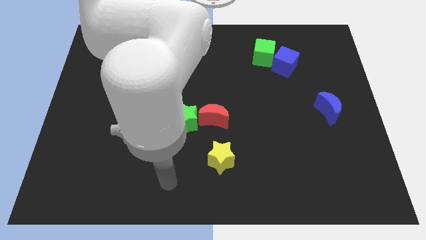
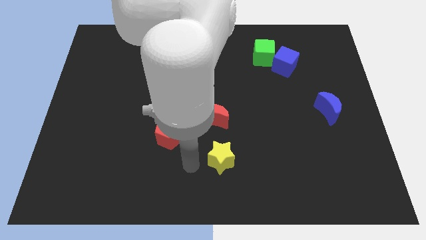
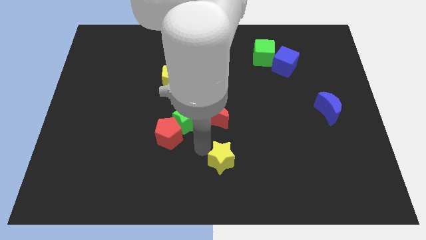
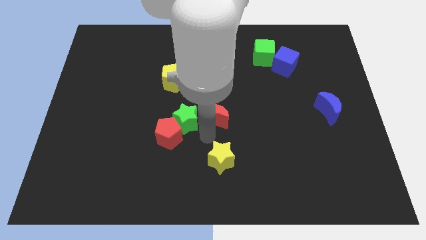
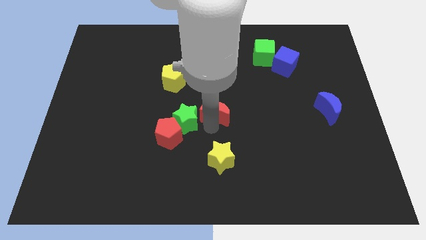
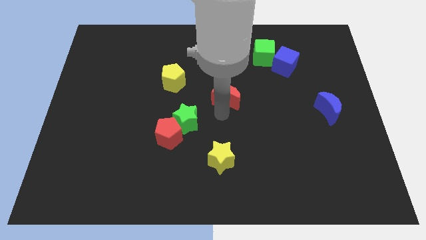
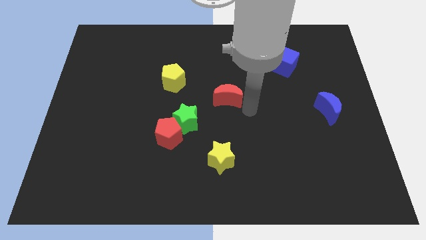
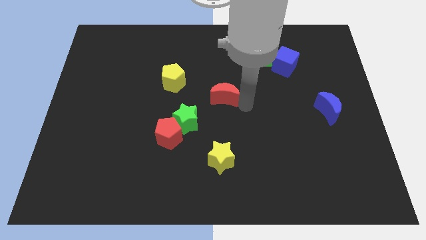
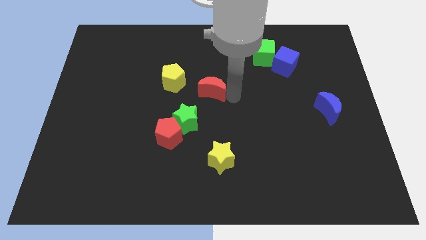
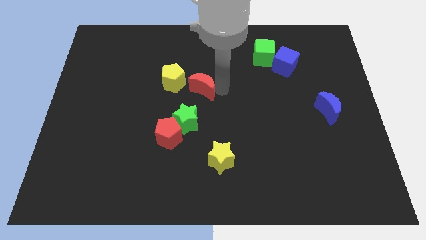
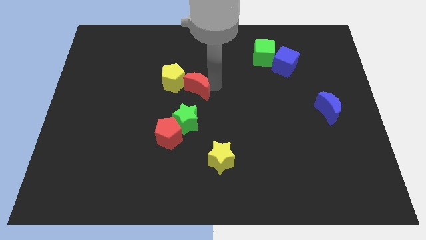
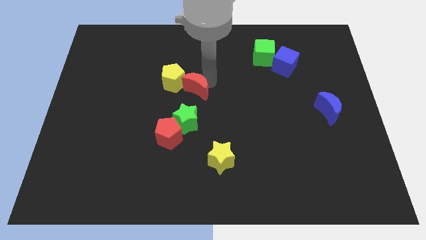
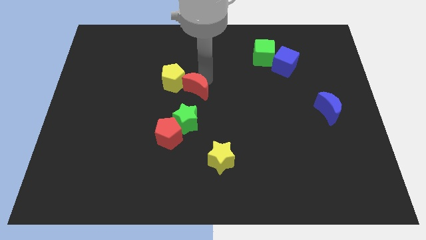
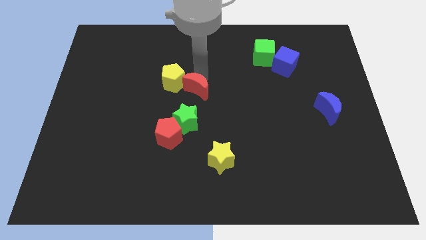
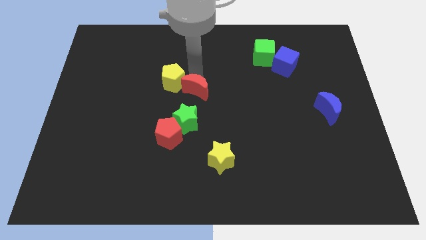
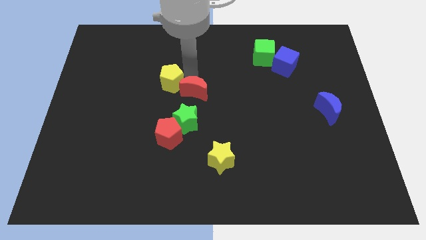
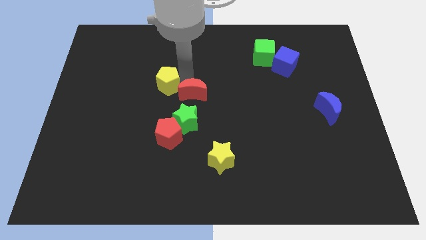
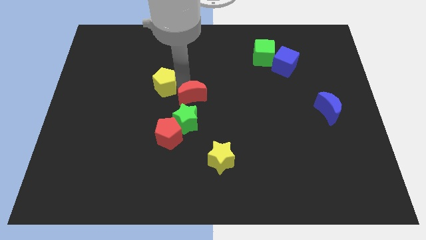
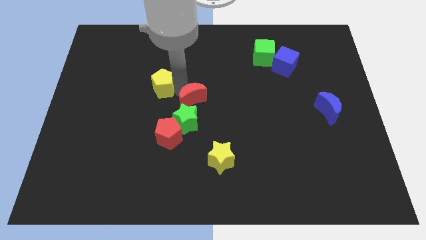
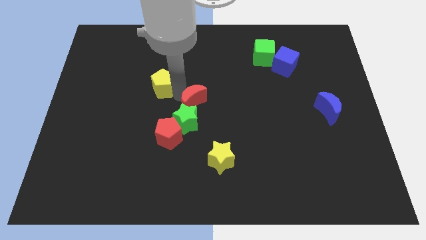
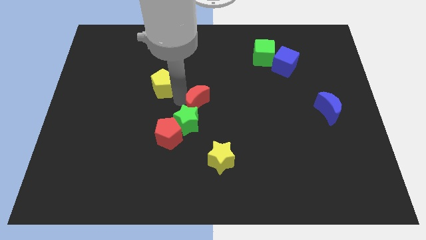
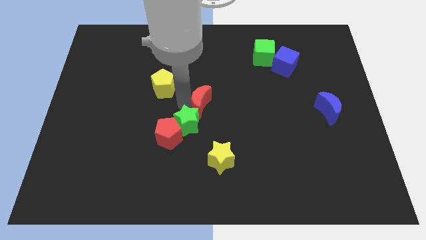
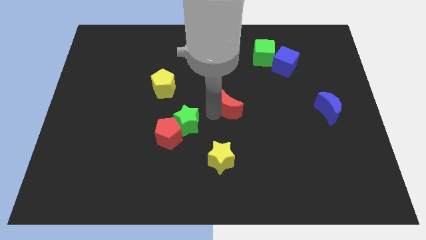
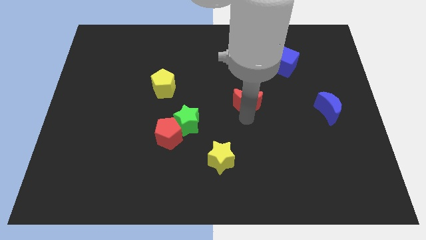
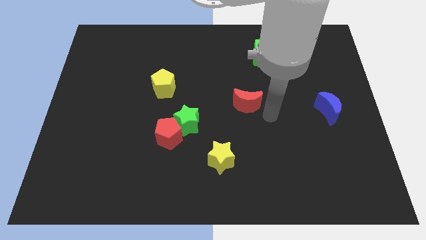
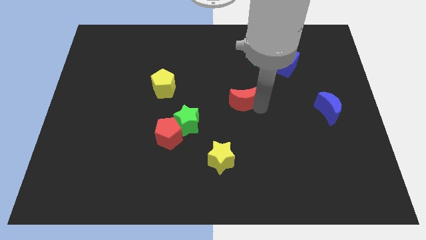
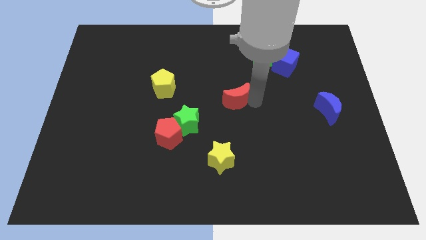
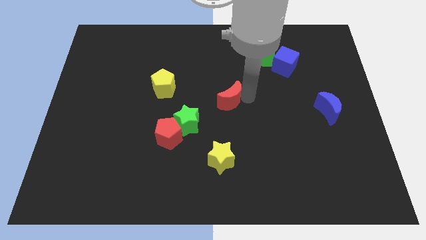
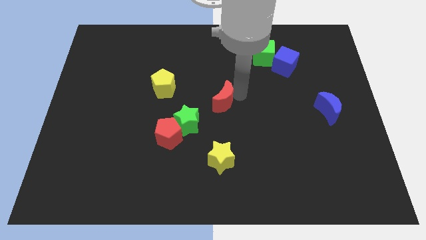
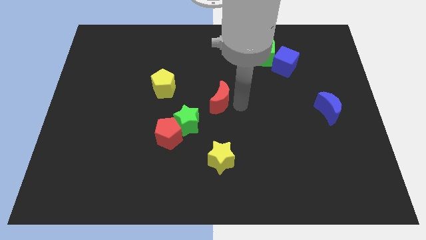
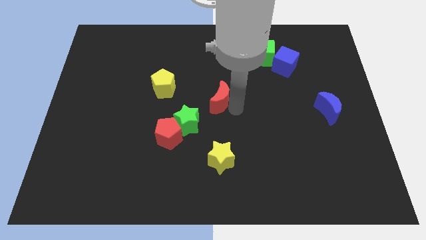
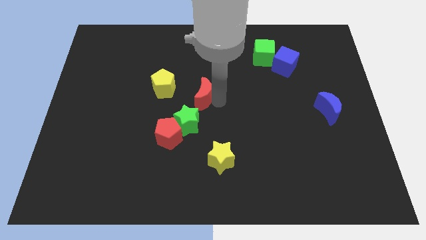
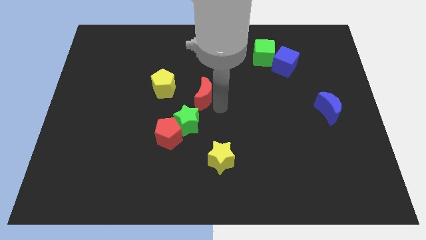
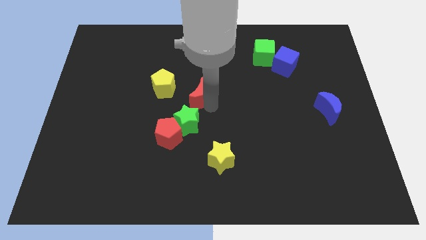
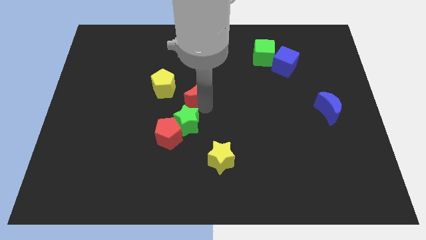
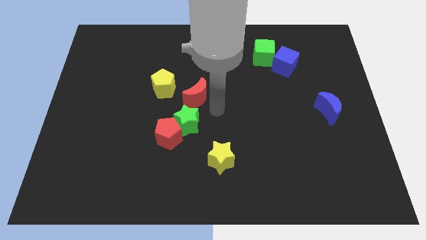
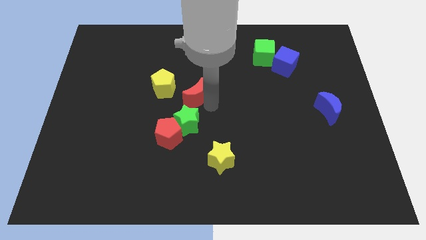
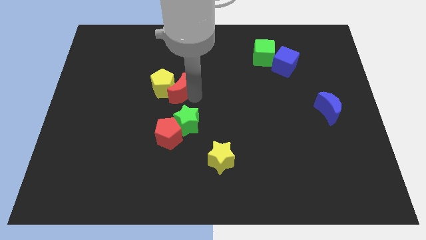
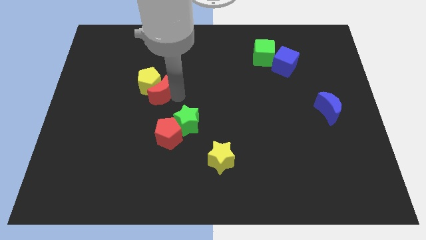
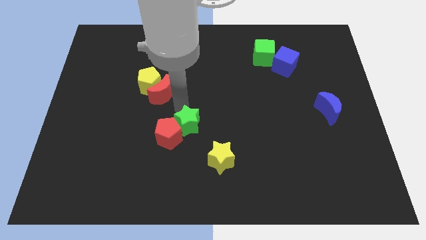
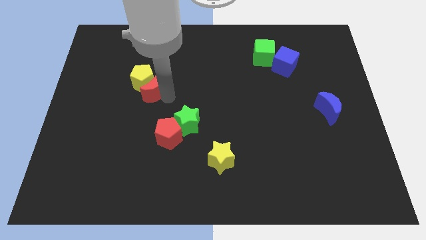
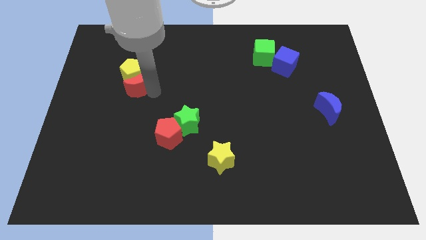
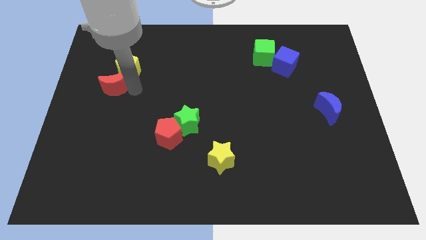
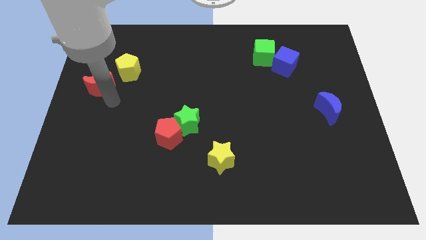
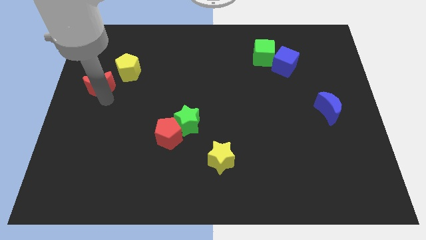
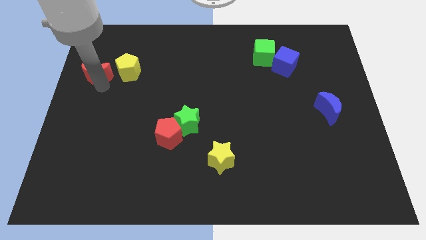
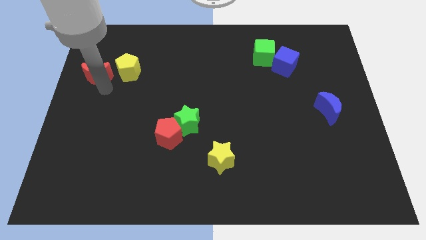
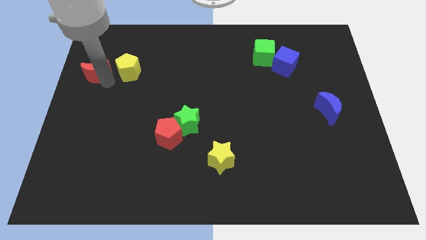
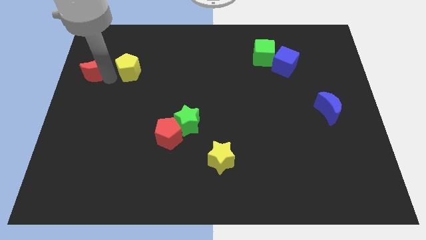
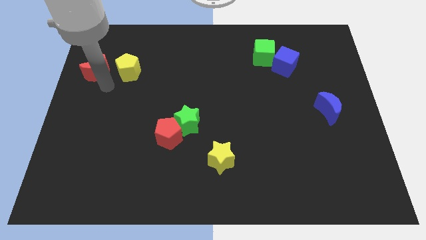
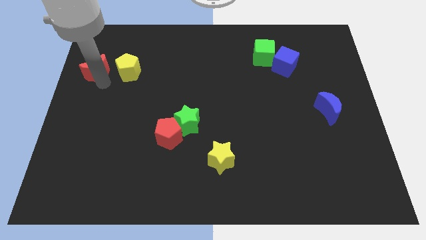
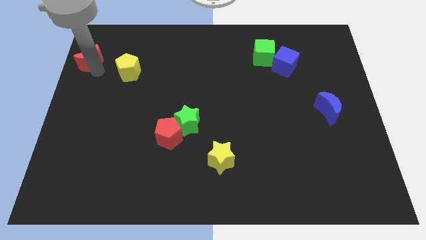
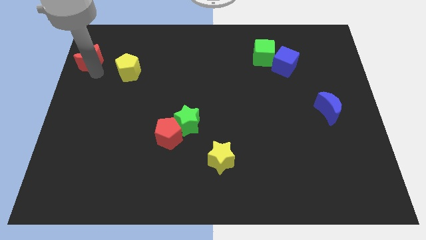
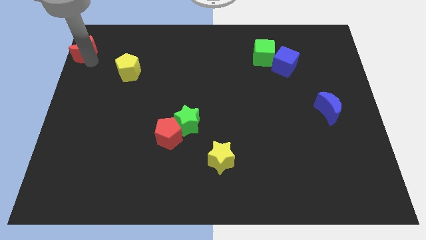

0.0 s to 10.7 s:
put the red moon to the top left

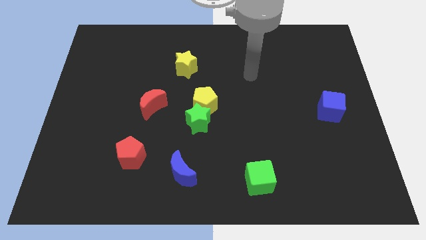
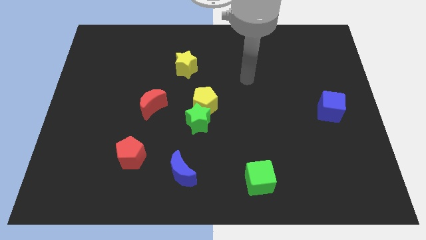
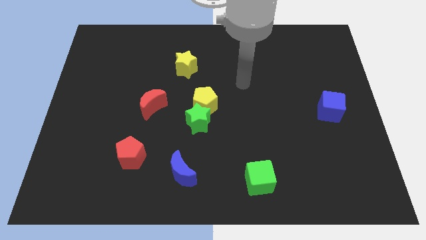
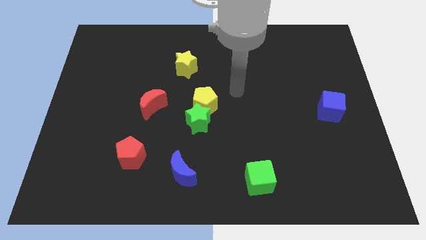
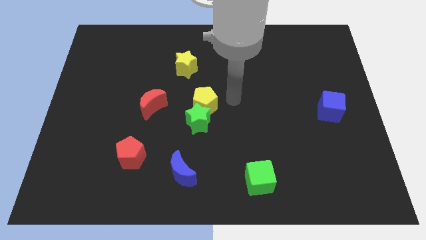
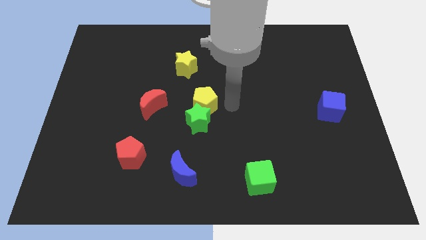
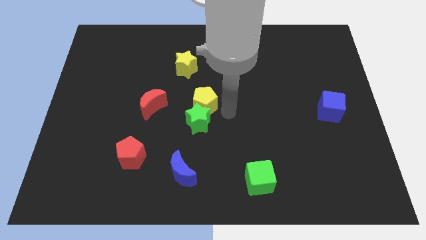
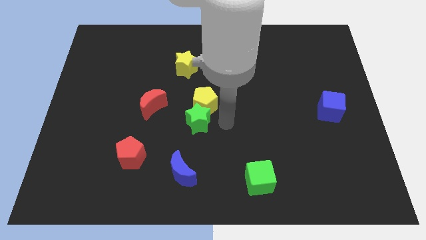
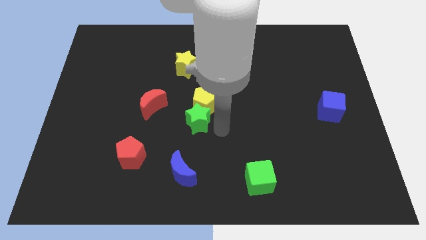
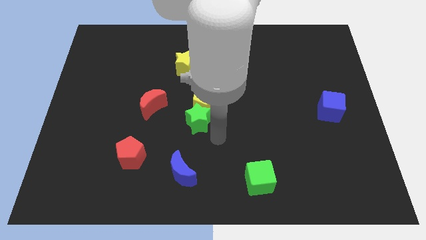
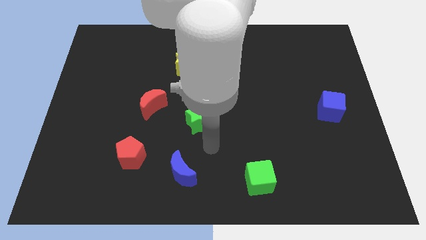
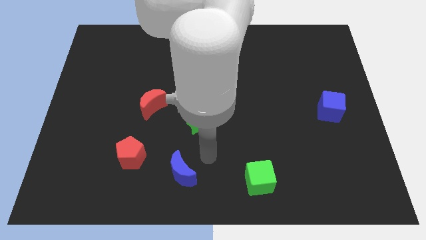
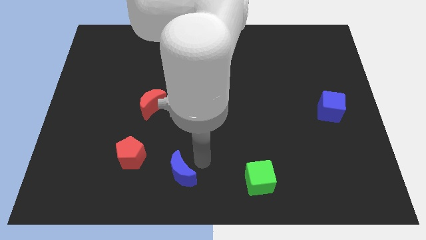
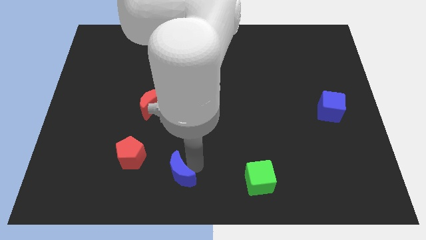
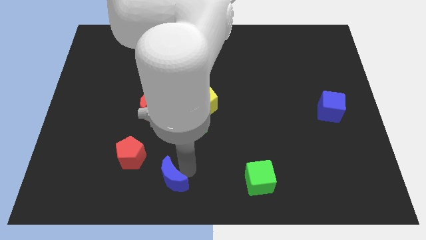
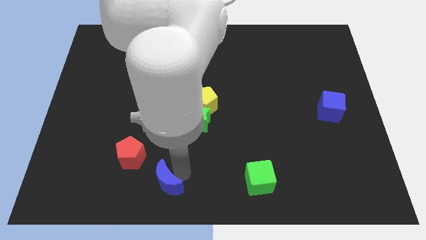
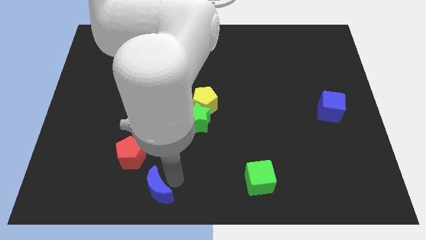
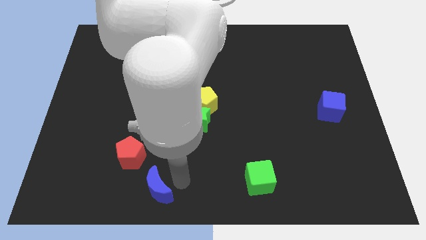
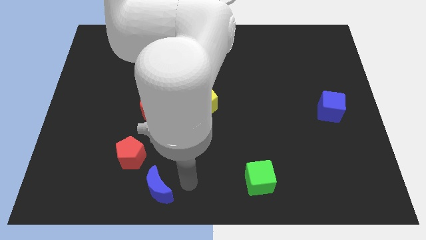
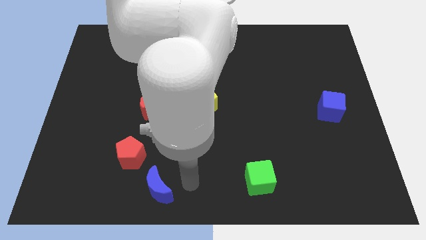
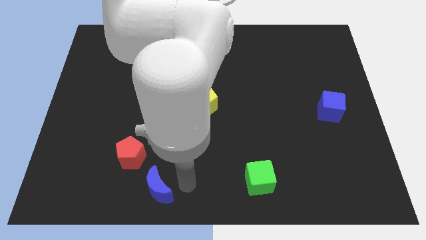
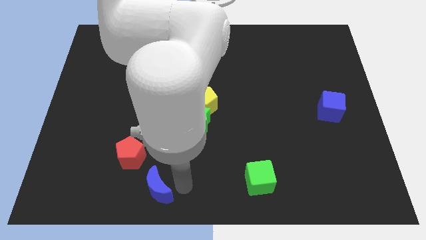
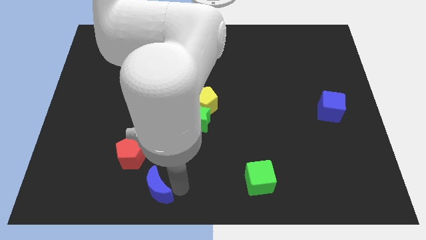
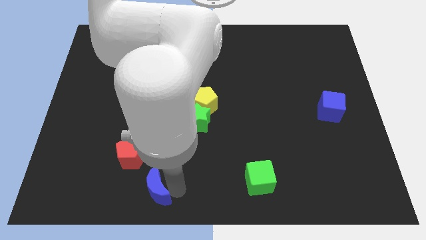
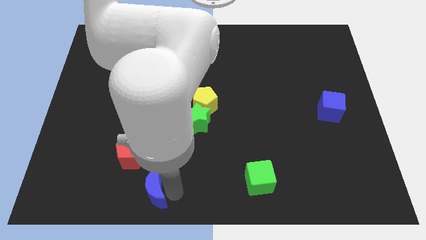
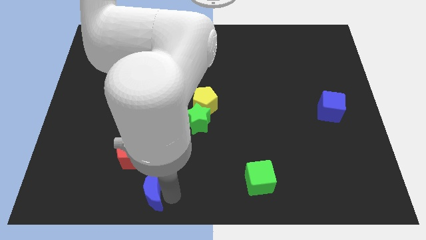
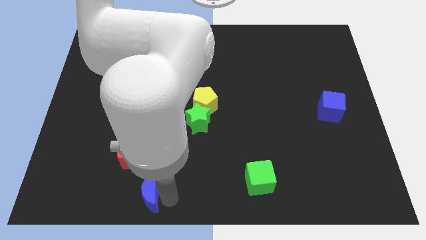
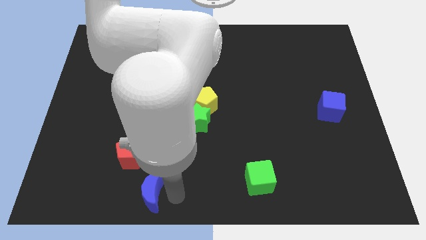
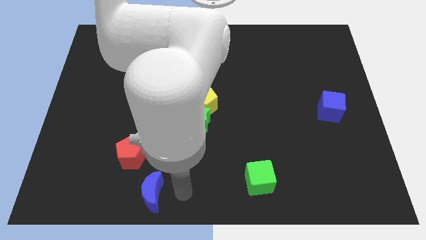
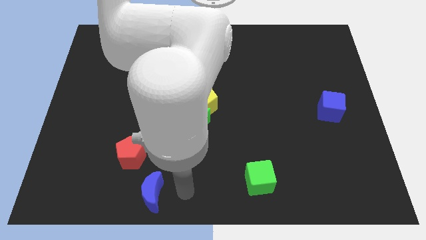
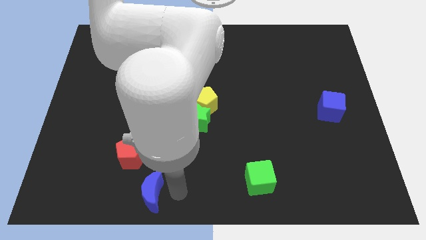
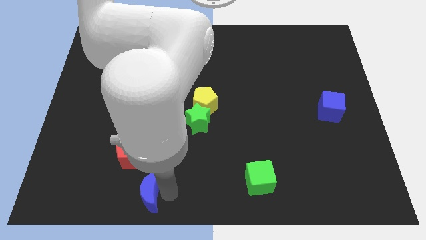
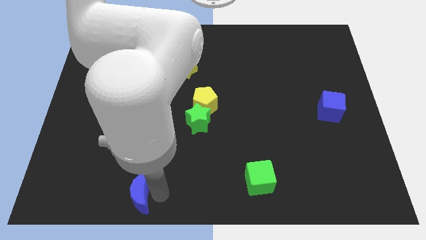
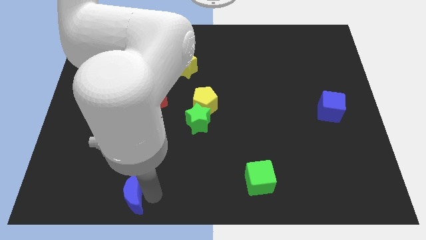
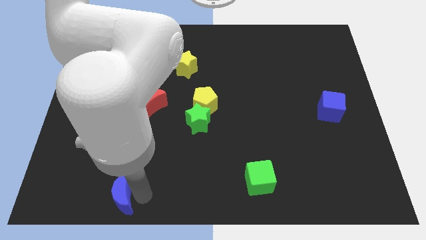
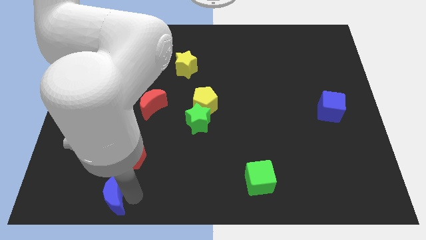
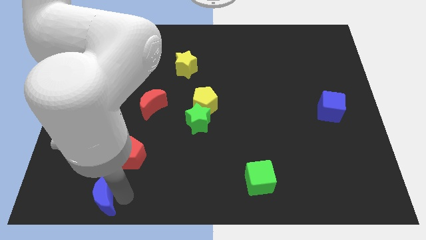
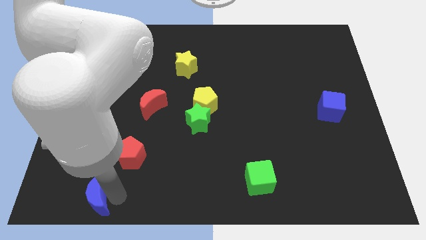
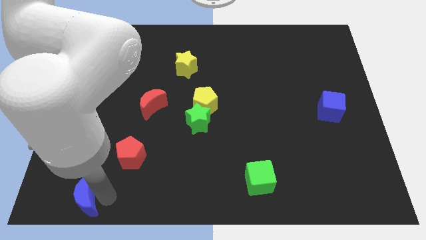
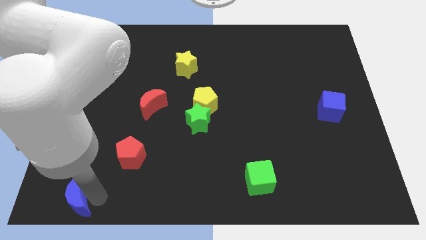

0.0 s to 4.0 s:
put the blue moon to the bottom left of the board
